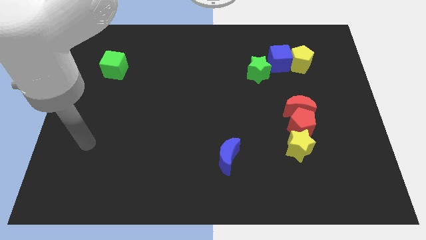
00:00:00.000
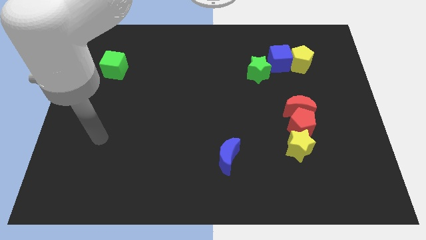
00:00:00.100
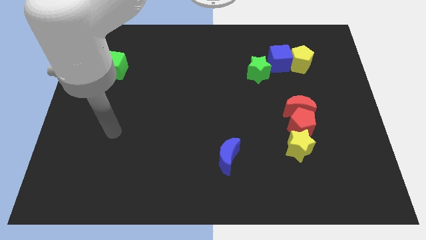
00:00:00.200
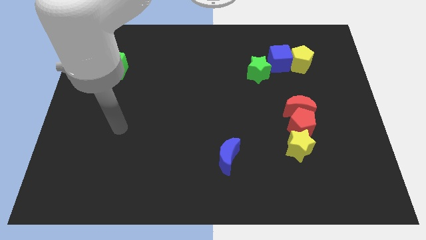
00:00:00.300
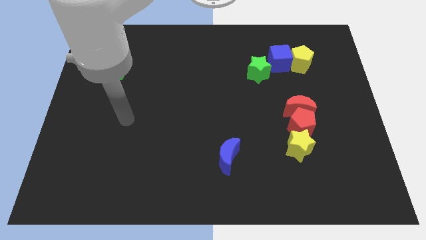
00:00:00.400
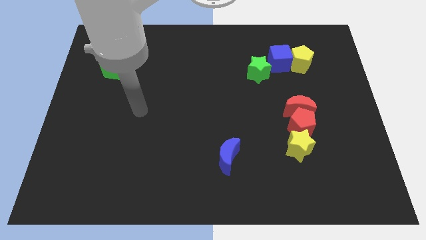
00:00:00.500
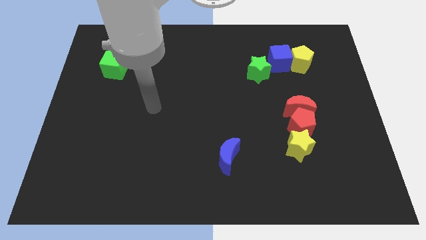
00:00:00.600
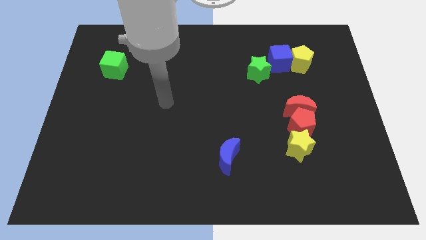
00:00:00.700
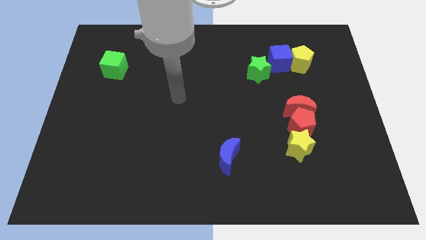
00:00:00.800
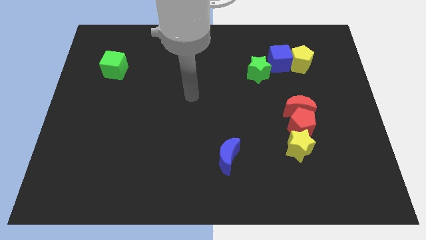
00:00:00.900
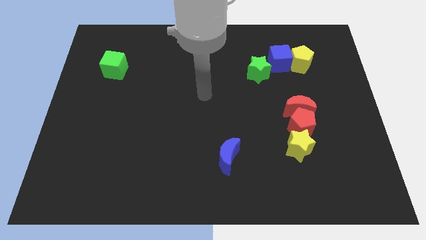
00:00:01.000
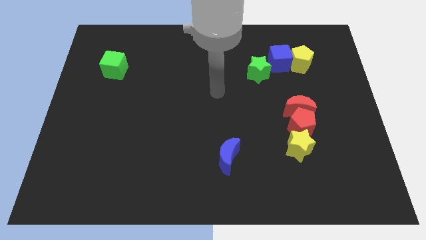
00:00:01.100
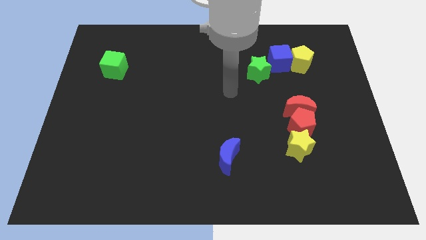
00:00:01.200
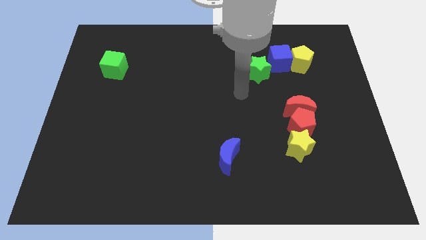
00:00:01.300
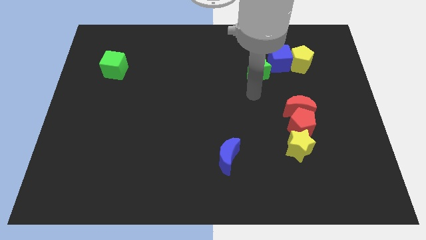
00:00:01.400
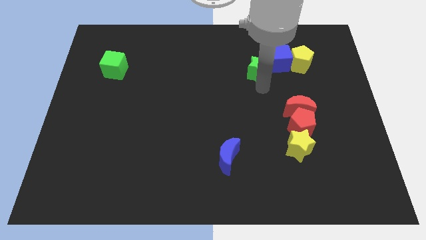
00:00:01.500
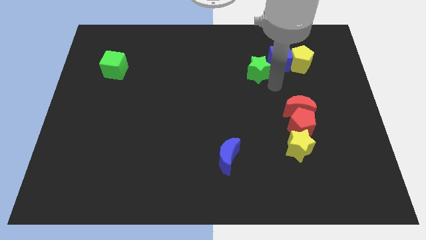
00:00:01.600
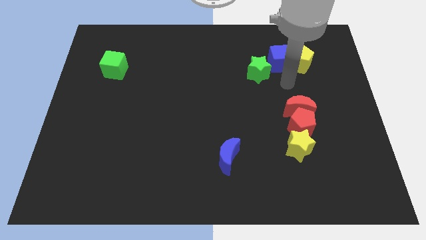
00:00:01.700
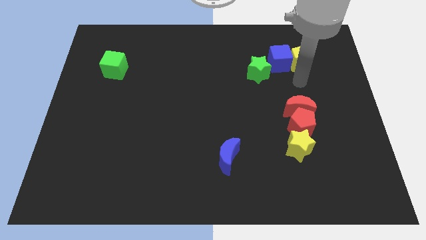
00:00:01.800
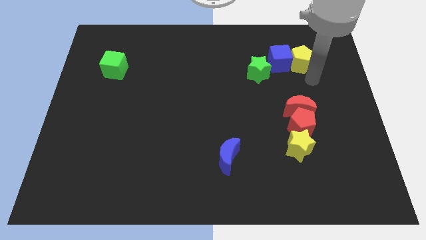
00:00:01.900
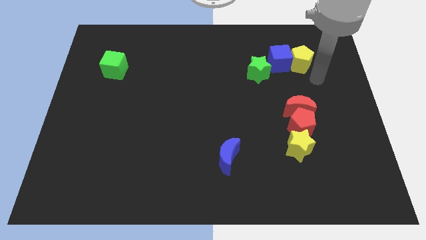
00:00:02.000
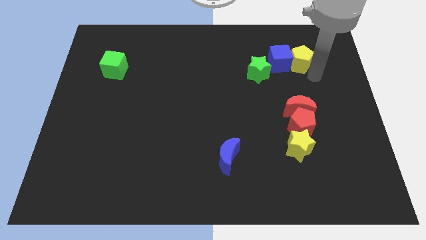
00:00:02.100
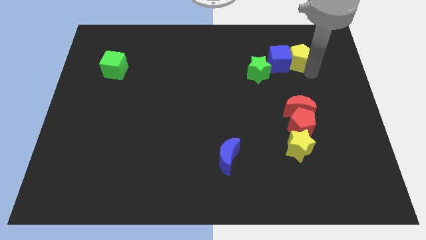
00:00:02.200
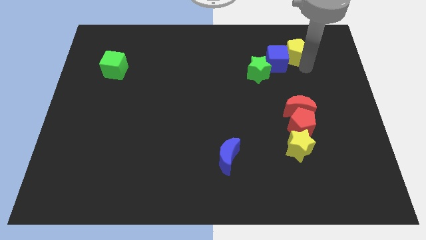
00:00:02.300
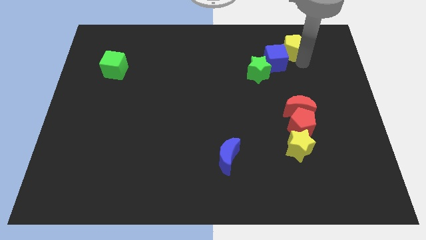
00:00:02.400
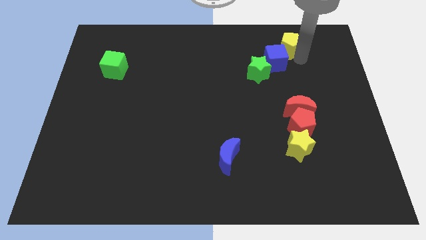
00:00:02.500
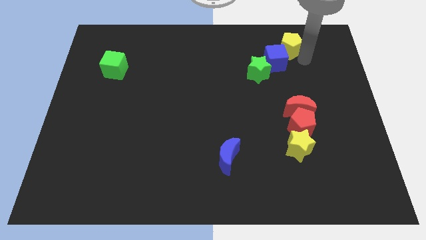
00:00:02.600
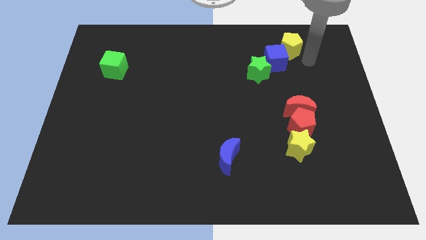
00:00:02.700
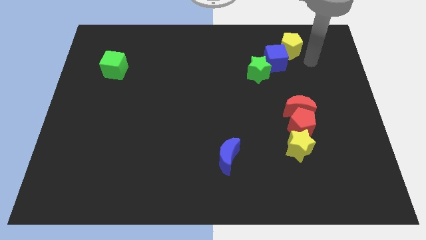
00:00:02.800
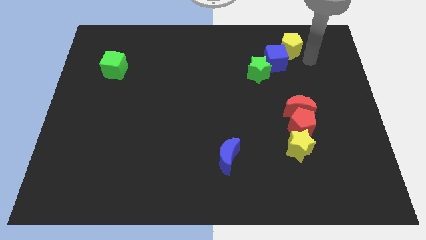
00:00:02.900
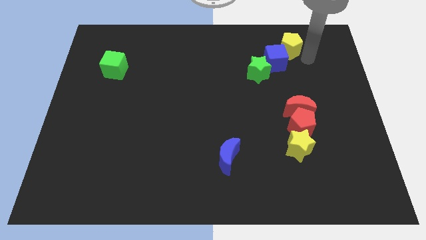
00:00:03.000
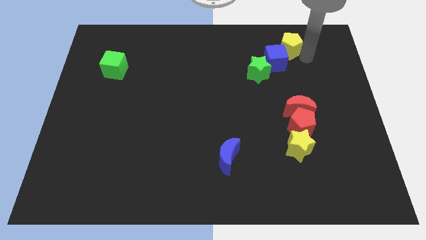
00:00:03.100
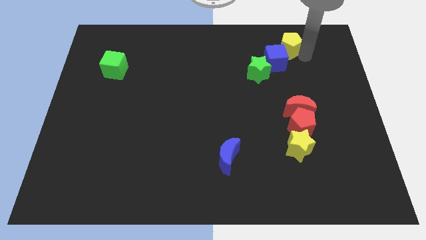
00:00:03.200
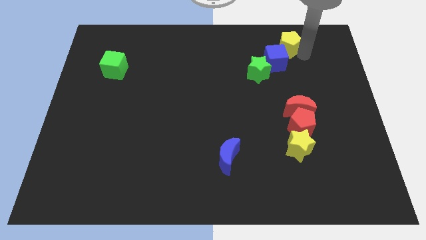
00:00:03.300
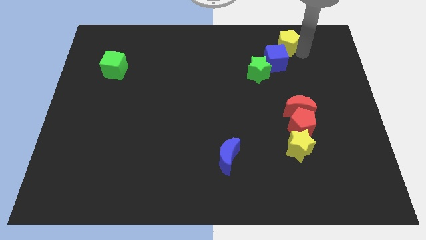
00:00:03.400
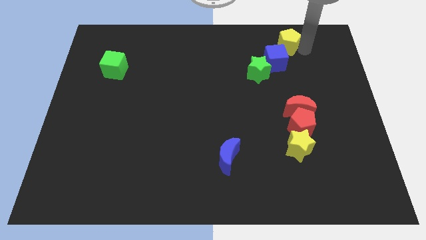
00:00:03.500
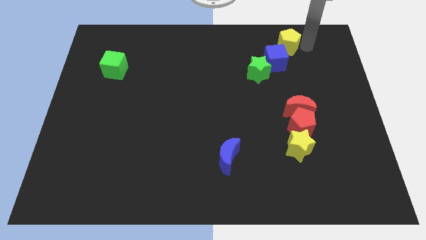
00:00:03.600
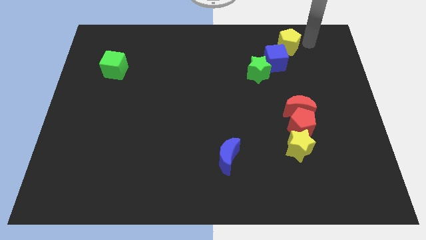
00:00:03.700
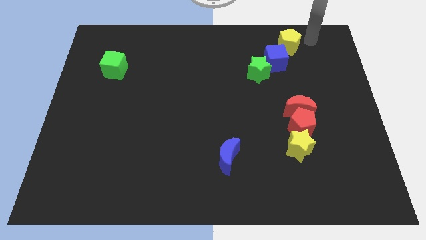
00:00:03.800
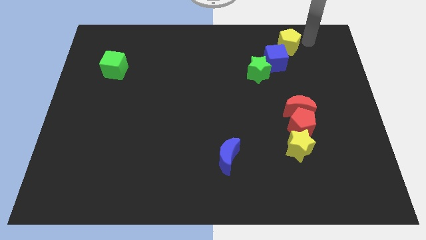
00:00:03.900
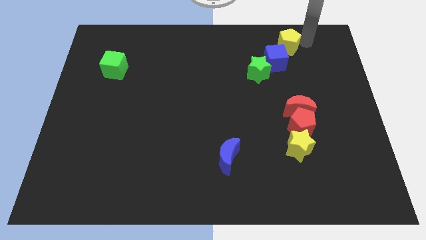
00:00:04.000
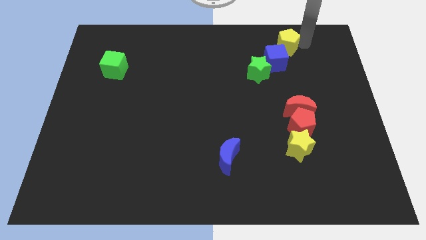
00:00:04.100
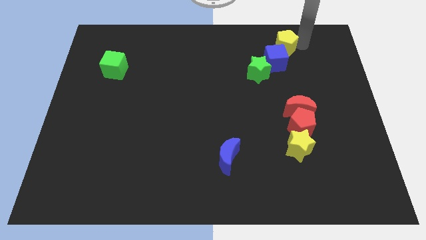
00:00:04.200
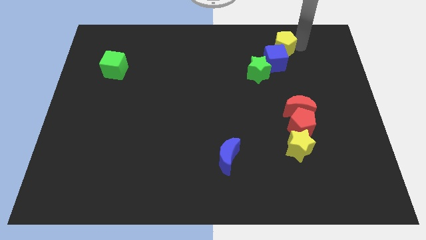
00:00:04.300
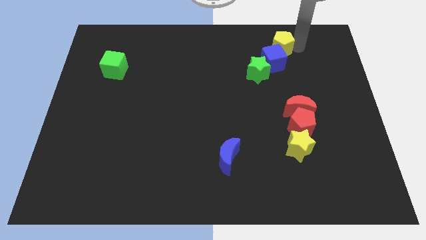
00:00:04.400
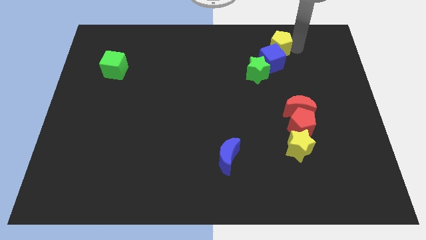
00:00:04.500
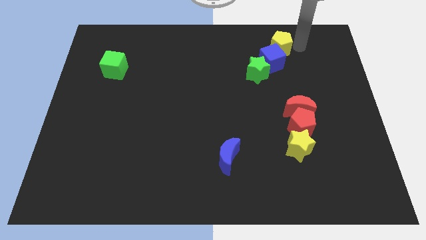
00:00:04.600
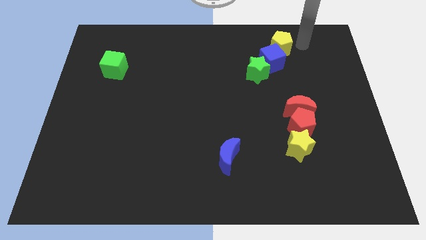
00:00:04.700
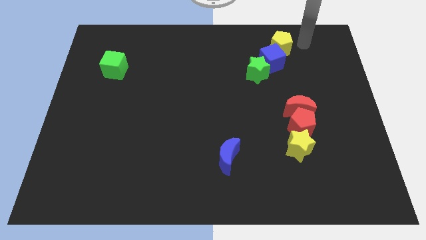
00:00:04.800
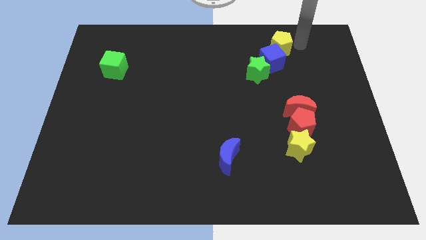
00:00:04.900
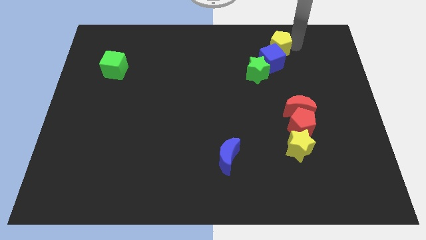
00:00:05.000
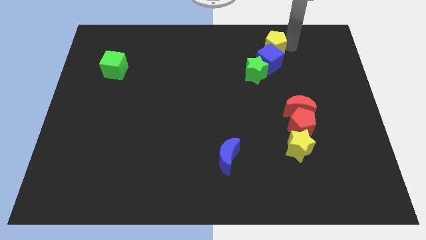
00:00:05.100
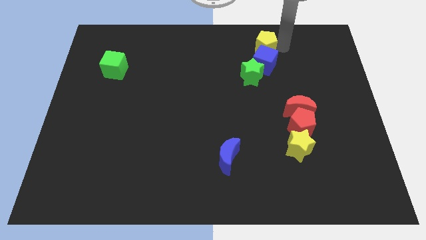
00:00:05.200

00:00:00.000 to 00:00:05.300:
push the yellow pentagon to the left somewhat

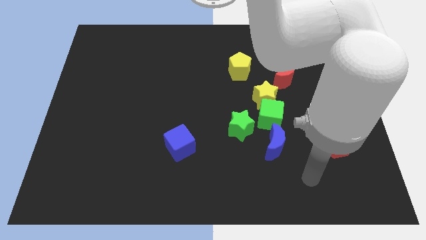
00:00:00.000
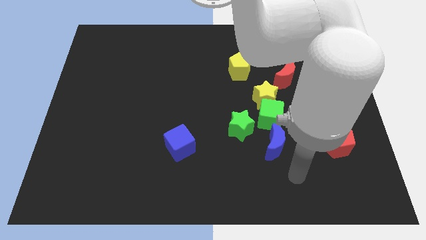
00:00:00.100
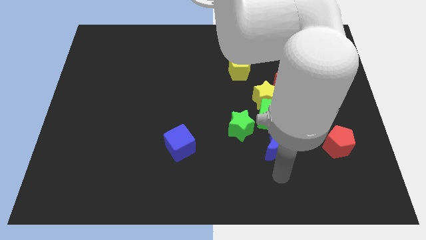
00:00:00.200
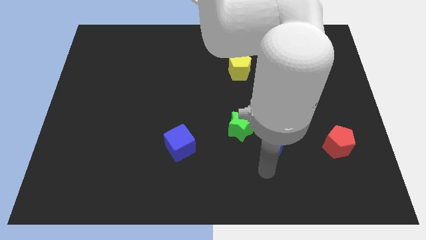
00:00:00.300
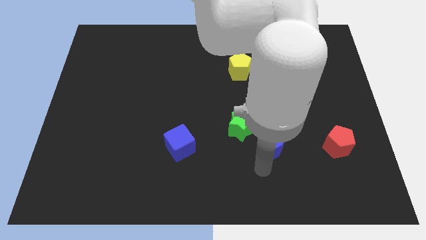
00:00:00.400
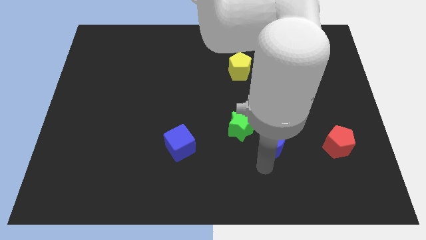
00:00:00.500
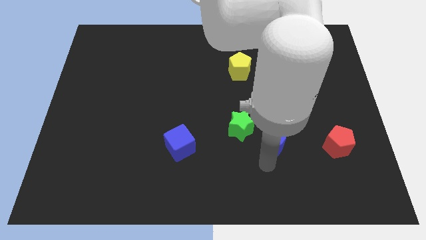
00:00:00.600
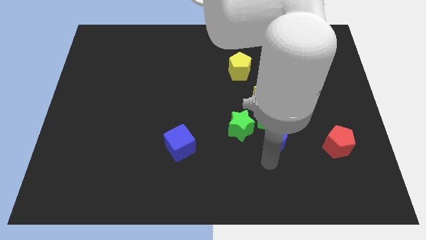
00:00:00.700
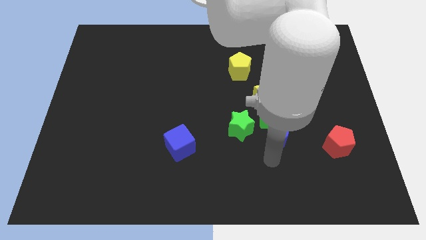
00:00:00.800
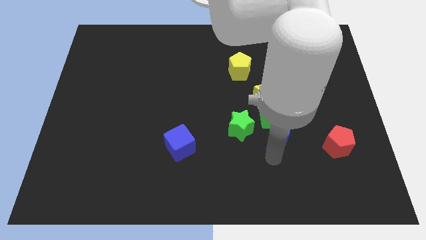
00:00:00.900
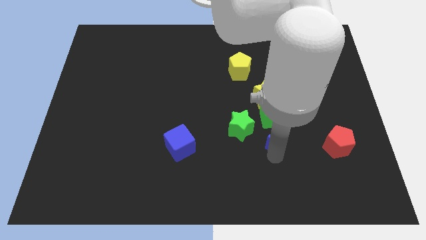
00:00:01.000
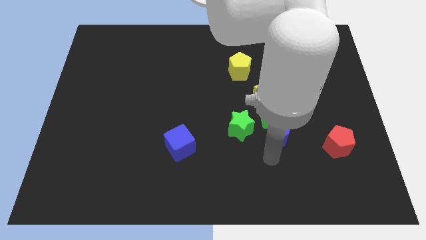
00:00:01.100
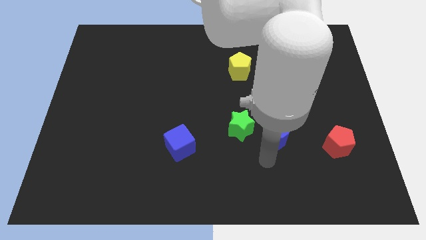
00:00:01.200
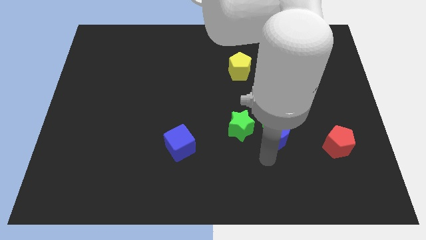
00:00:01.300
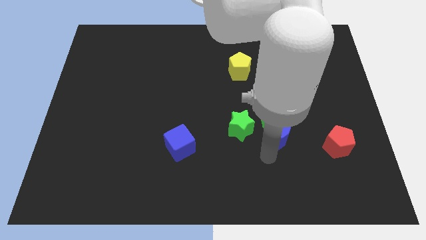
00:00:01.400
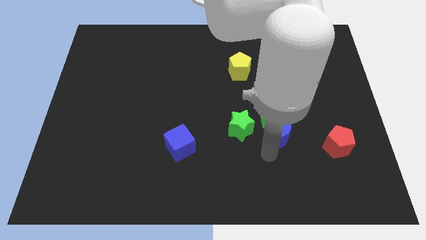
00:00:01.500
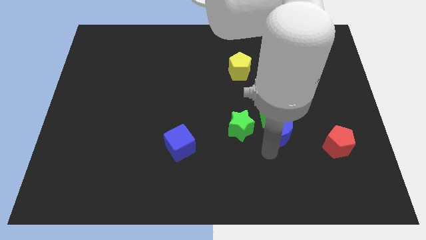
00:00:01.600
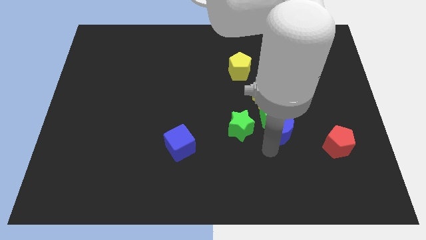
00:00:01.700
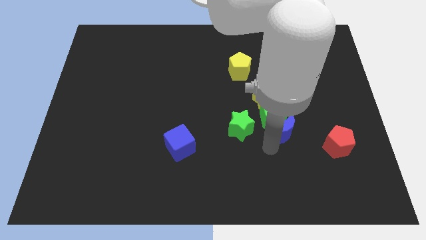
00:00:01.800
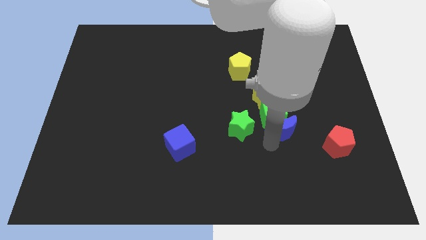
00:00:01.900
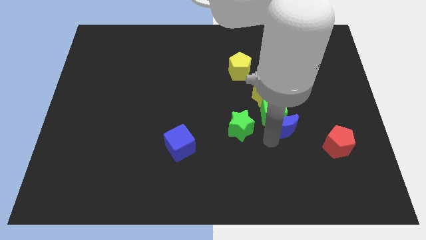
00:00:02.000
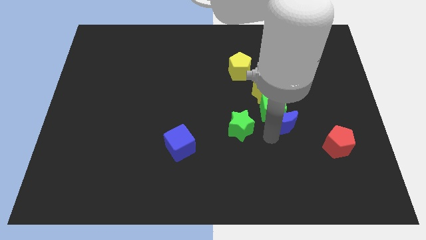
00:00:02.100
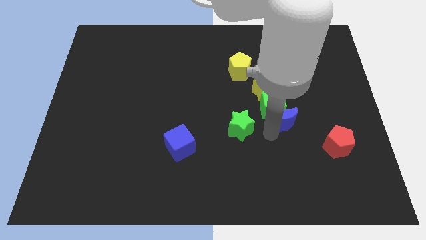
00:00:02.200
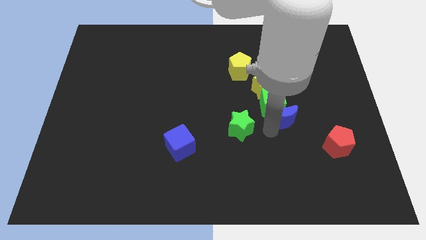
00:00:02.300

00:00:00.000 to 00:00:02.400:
push the blue moon a little bit upwards
